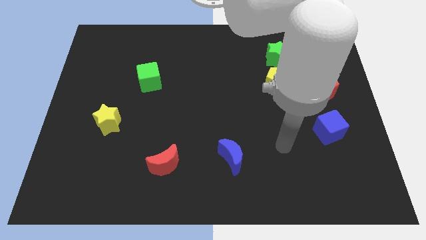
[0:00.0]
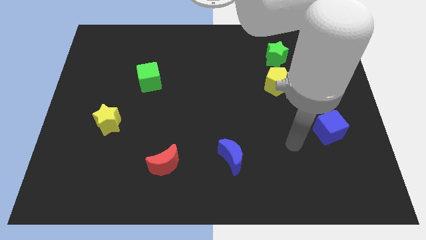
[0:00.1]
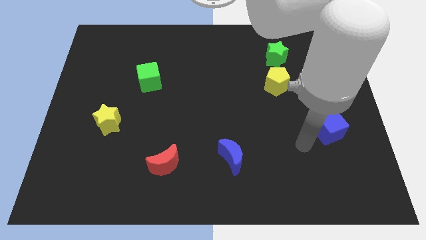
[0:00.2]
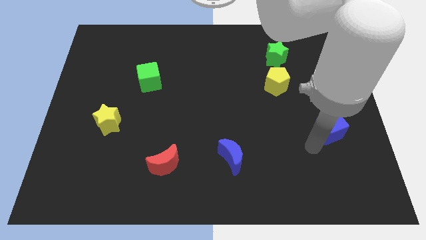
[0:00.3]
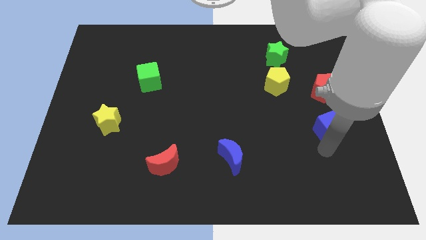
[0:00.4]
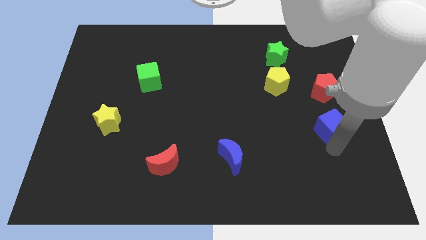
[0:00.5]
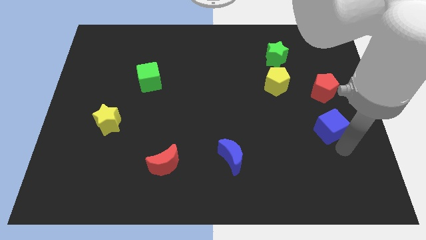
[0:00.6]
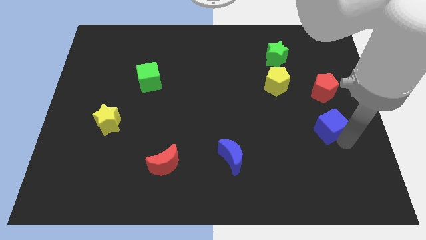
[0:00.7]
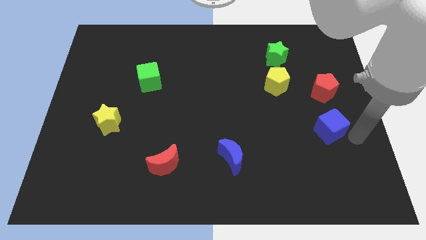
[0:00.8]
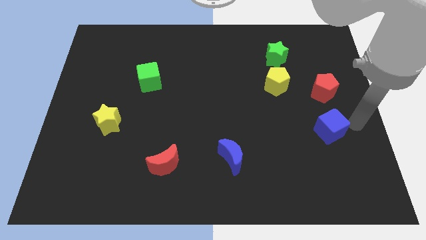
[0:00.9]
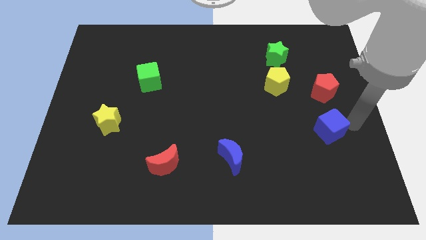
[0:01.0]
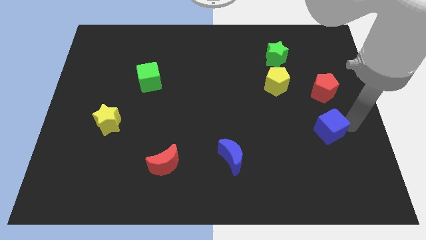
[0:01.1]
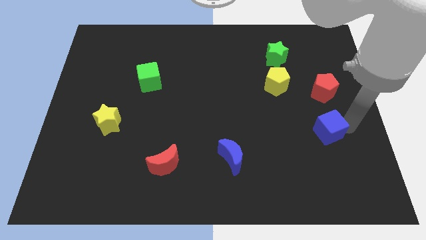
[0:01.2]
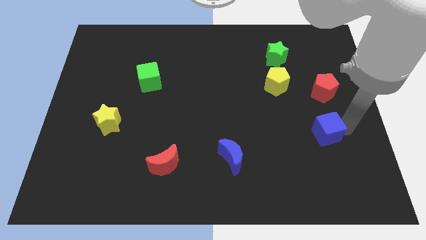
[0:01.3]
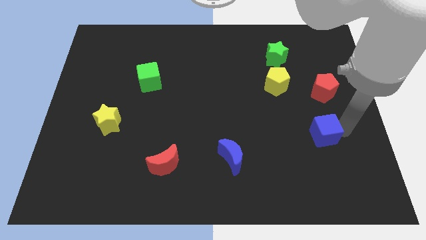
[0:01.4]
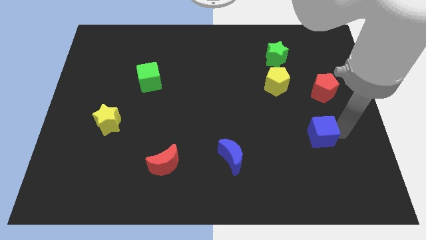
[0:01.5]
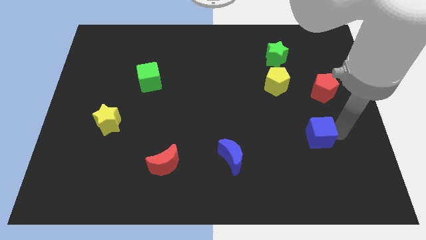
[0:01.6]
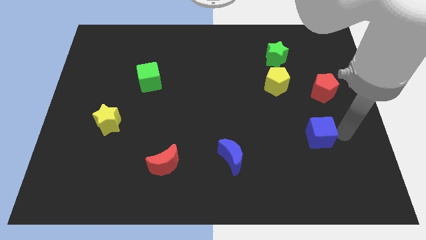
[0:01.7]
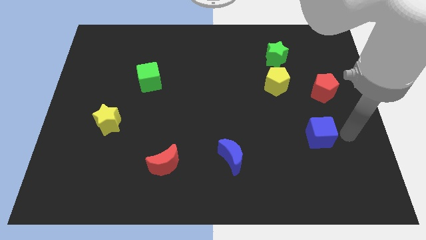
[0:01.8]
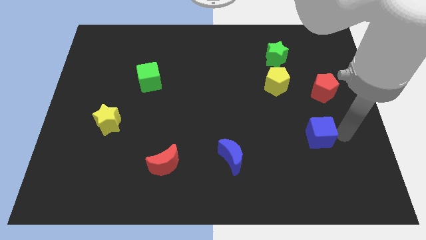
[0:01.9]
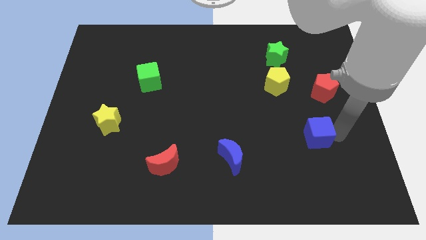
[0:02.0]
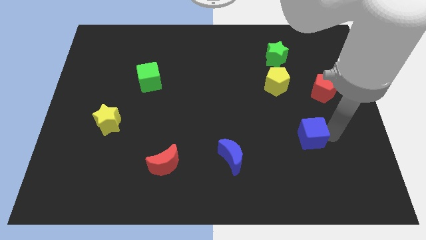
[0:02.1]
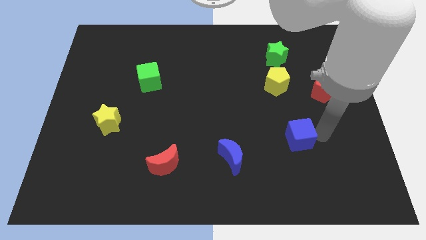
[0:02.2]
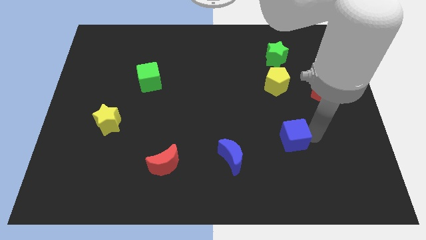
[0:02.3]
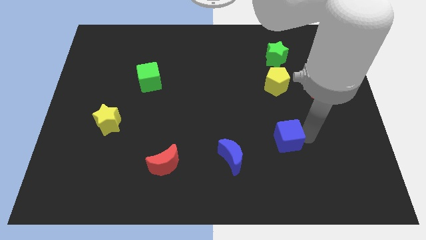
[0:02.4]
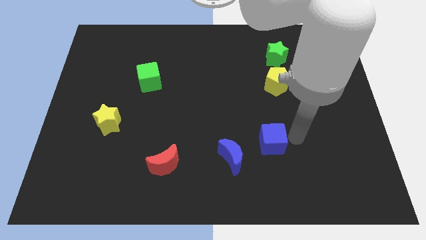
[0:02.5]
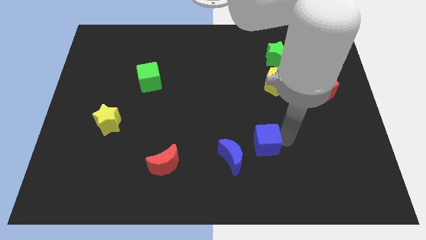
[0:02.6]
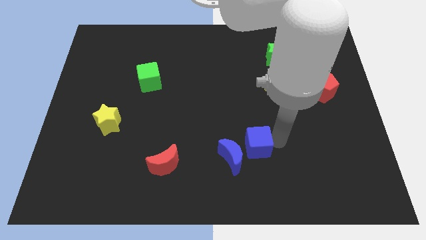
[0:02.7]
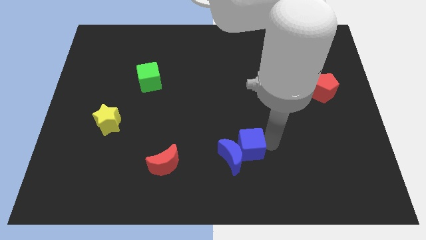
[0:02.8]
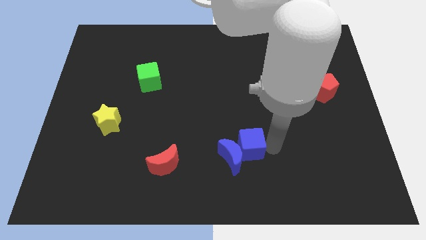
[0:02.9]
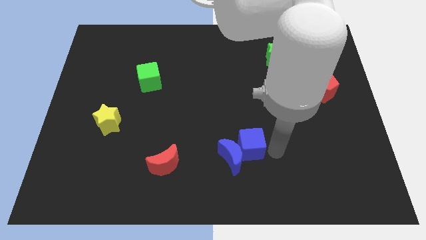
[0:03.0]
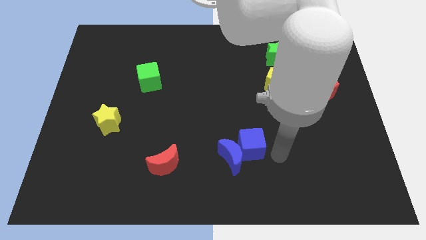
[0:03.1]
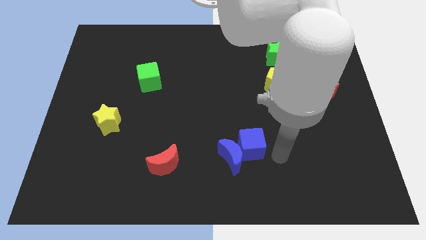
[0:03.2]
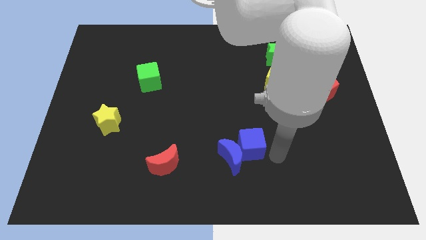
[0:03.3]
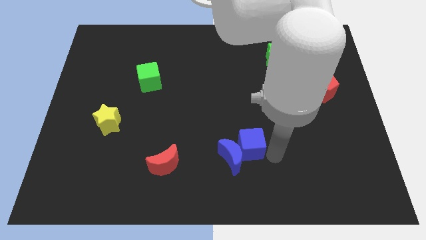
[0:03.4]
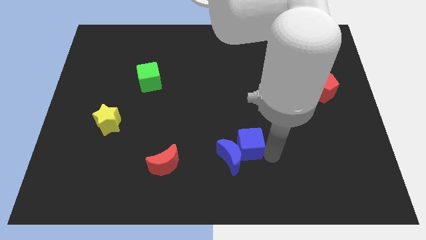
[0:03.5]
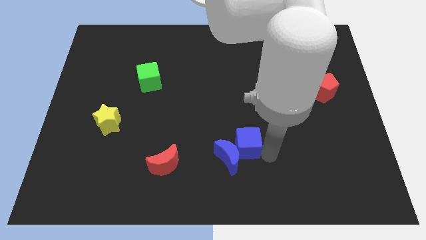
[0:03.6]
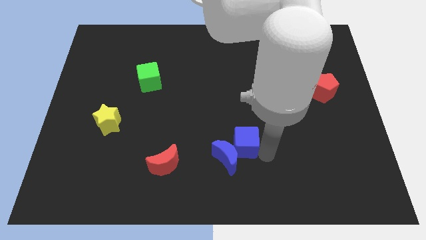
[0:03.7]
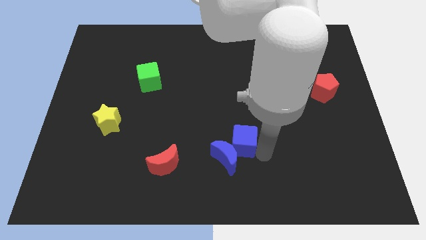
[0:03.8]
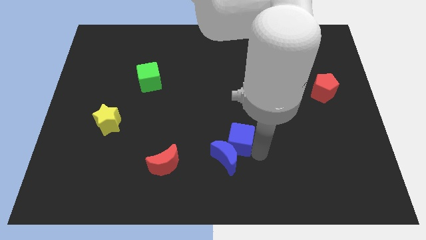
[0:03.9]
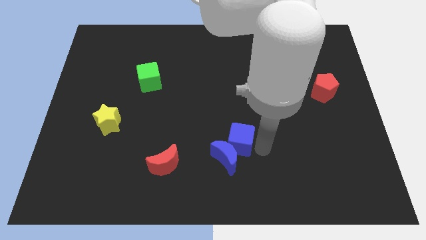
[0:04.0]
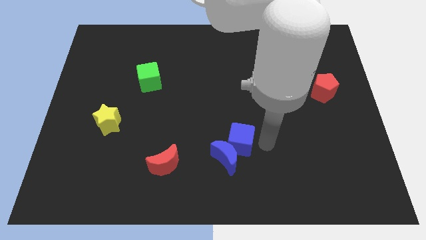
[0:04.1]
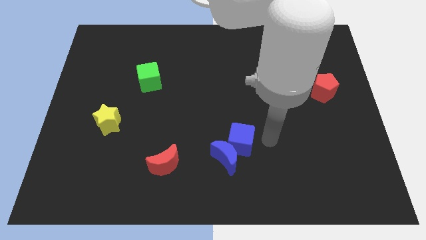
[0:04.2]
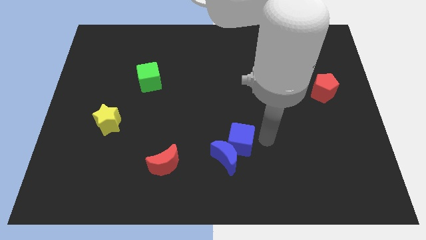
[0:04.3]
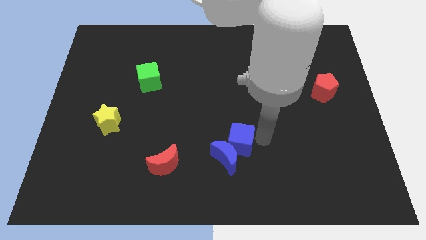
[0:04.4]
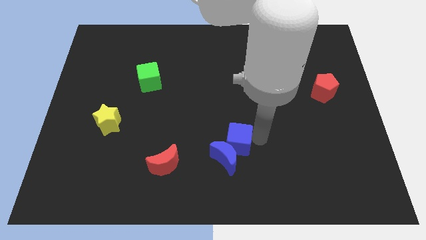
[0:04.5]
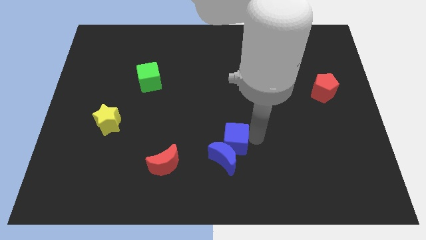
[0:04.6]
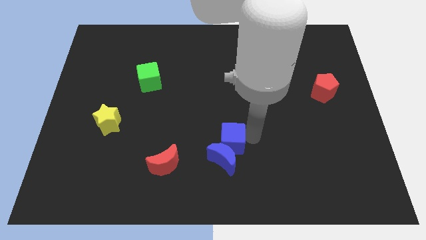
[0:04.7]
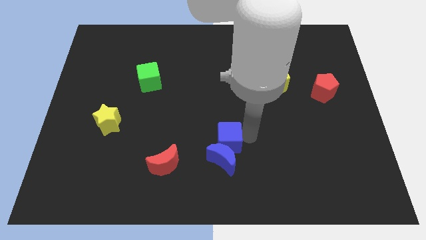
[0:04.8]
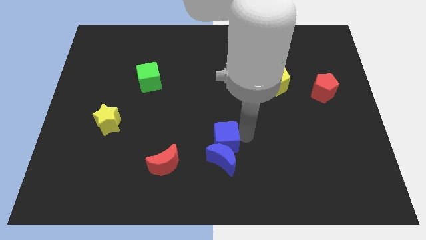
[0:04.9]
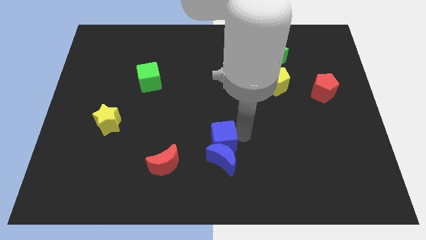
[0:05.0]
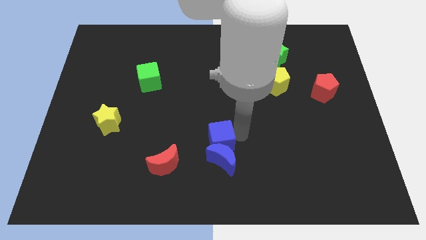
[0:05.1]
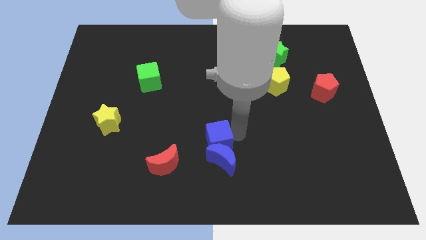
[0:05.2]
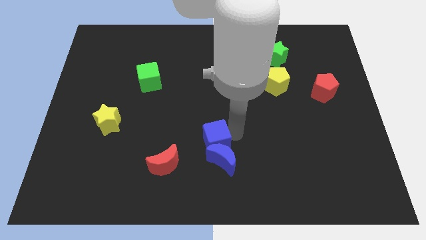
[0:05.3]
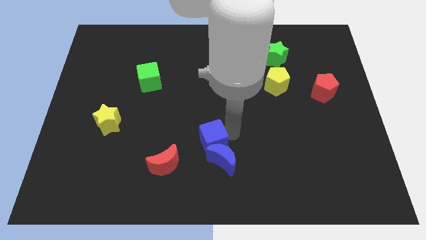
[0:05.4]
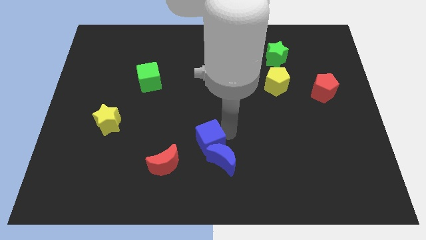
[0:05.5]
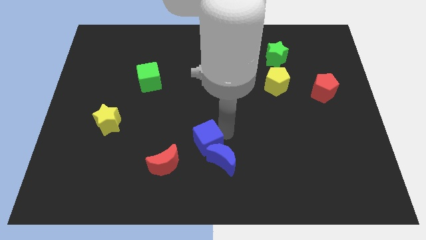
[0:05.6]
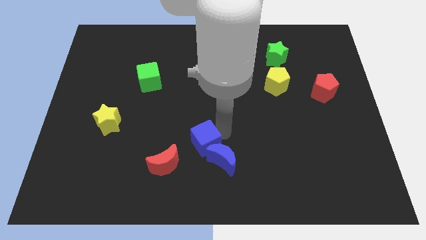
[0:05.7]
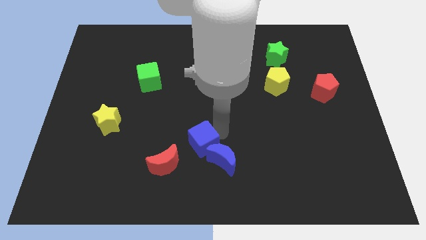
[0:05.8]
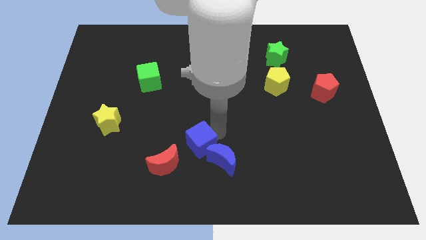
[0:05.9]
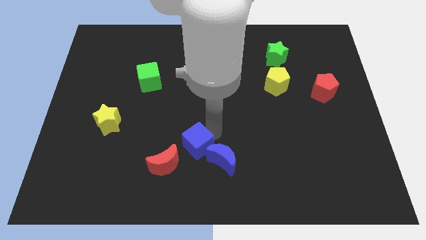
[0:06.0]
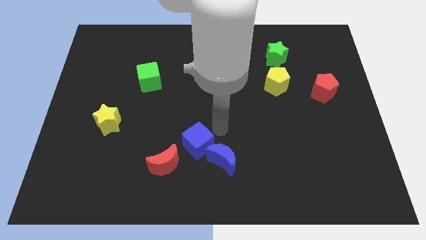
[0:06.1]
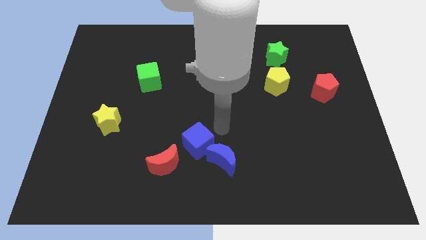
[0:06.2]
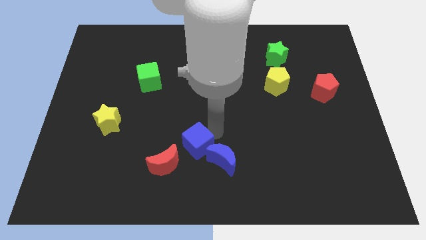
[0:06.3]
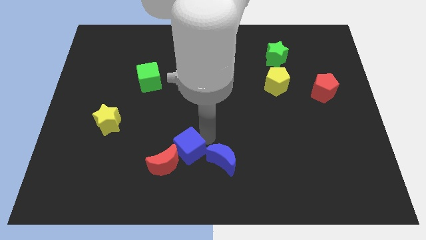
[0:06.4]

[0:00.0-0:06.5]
slide the blue cube towards the red moon

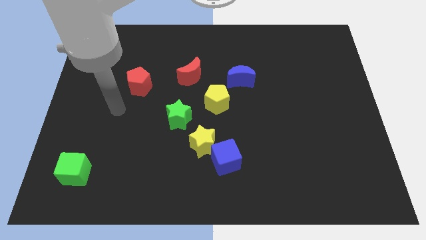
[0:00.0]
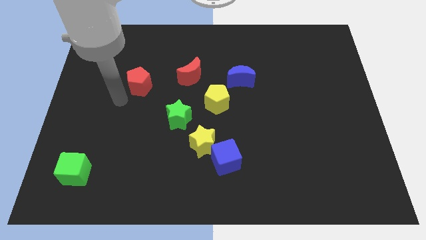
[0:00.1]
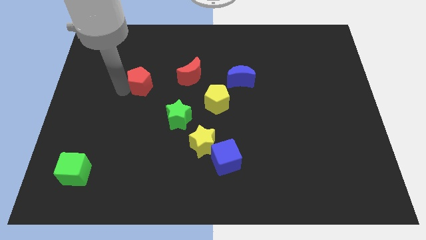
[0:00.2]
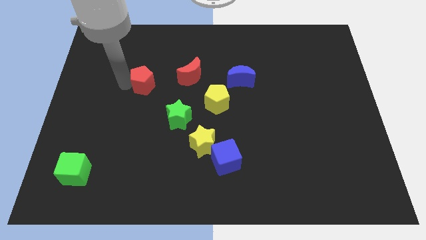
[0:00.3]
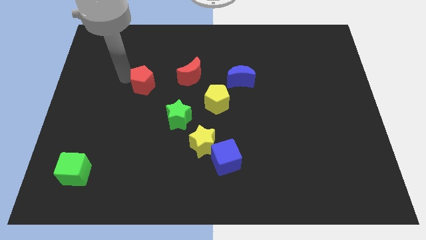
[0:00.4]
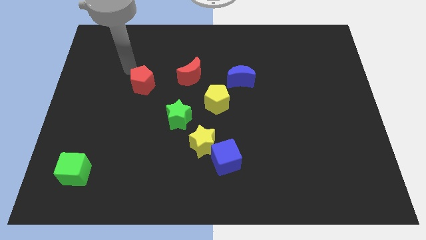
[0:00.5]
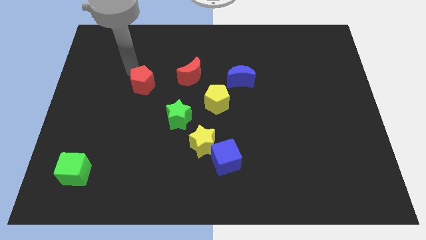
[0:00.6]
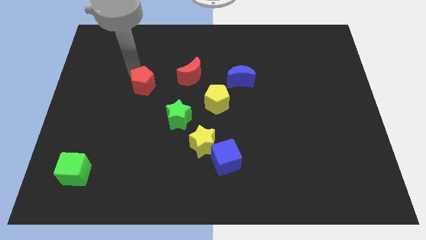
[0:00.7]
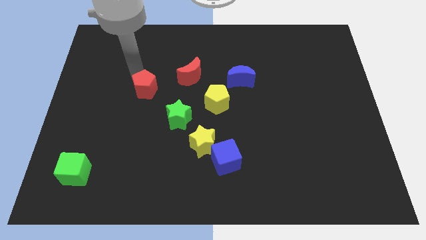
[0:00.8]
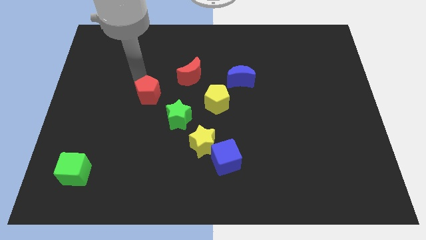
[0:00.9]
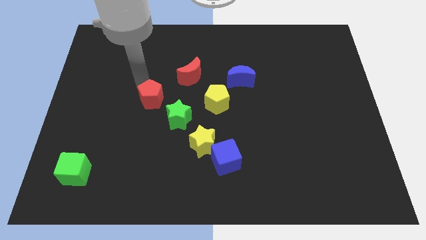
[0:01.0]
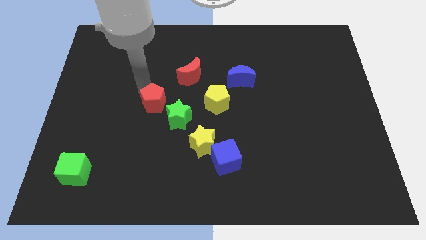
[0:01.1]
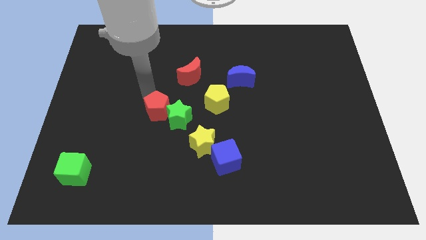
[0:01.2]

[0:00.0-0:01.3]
put the red pentagon towards the green star
